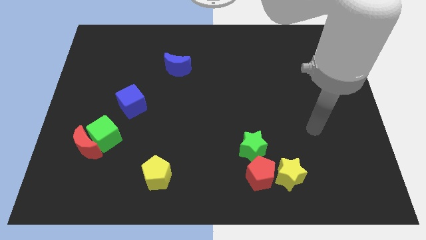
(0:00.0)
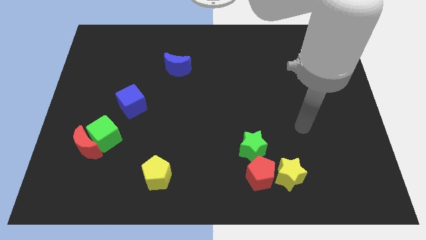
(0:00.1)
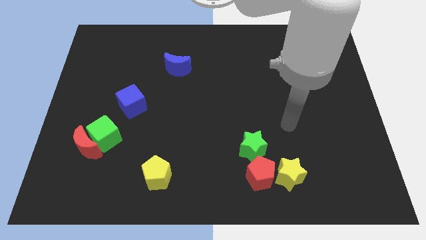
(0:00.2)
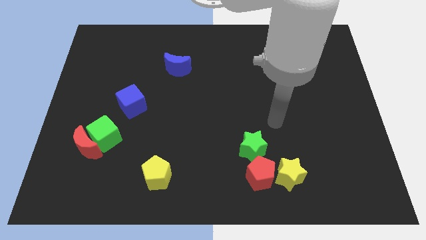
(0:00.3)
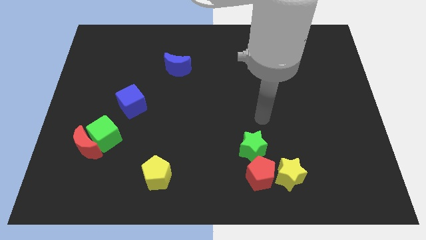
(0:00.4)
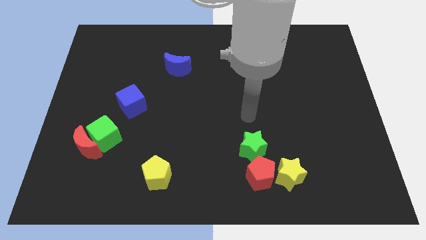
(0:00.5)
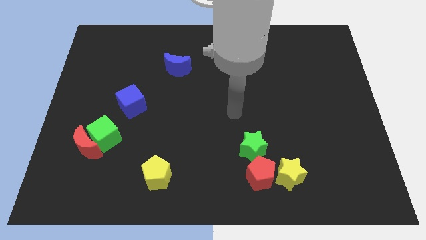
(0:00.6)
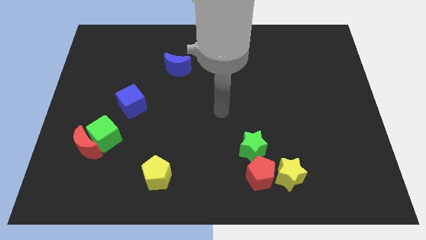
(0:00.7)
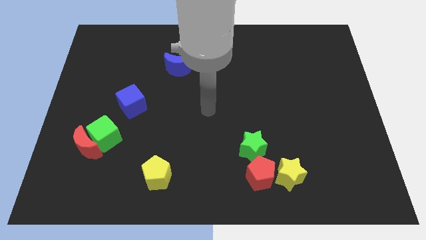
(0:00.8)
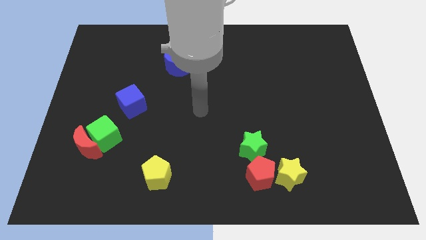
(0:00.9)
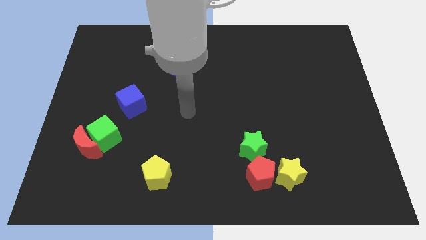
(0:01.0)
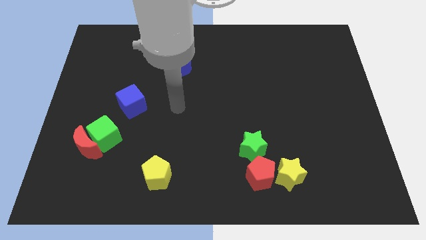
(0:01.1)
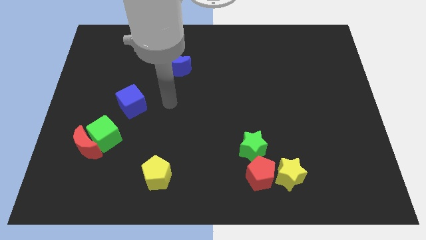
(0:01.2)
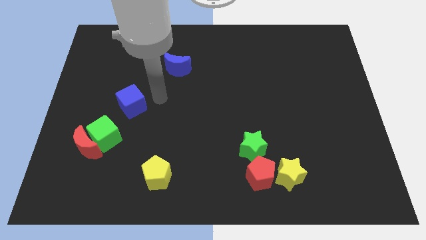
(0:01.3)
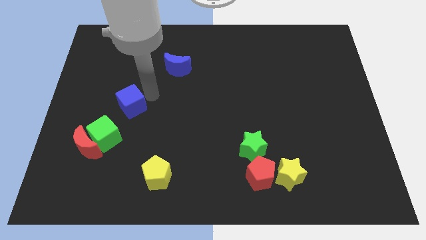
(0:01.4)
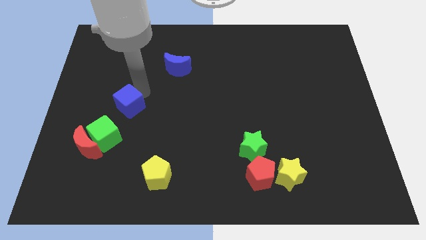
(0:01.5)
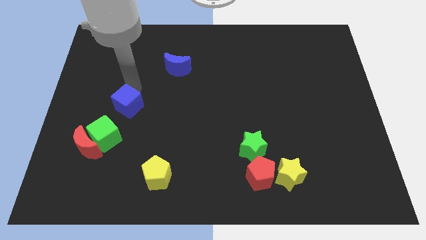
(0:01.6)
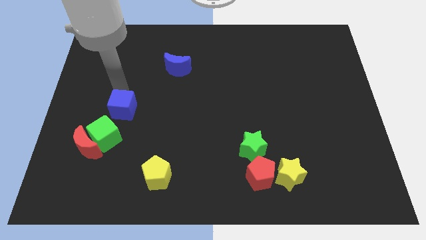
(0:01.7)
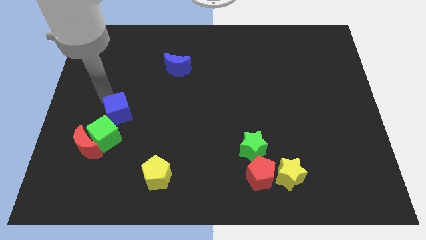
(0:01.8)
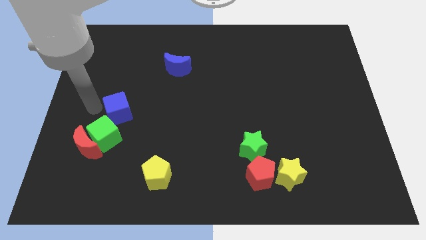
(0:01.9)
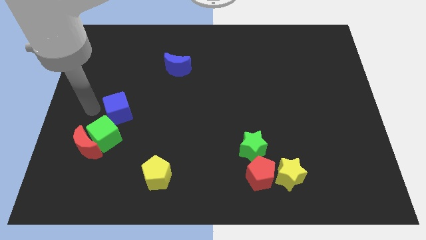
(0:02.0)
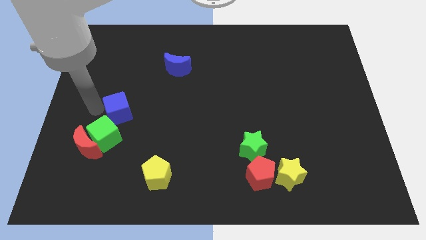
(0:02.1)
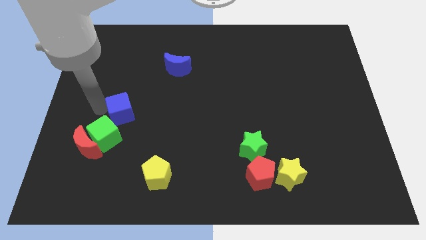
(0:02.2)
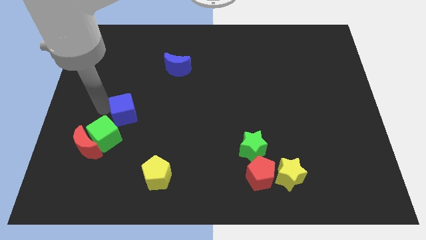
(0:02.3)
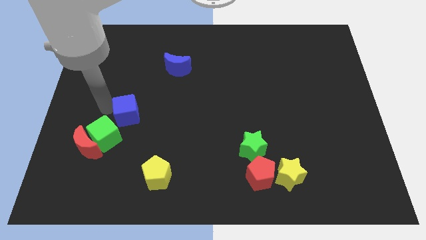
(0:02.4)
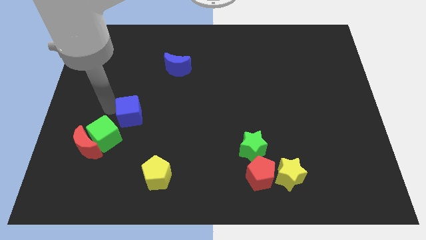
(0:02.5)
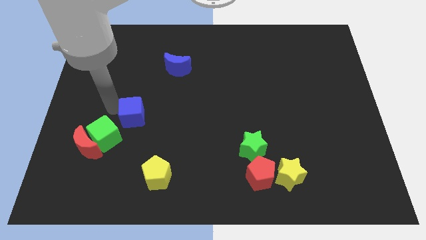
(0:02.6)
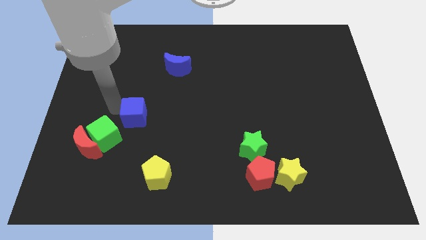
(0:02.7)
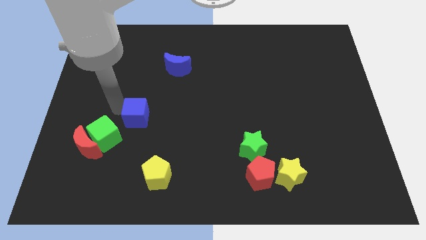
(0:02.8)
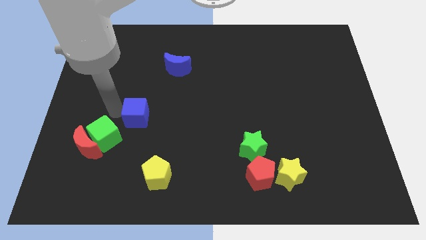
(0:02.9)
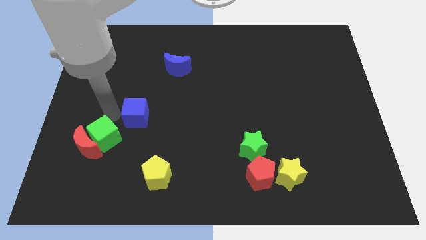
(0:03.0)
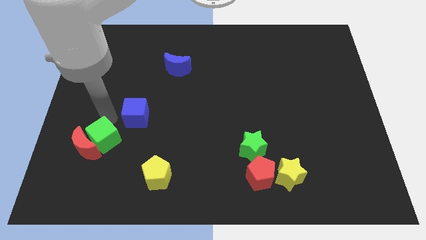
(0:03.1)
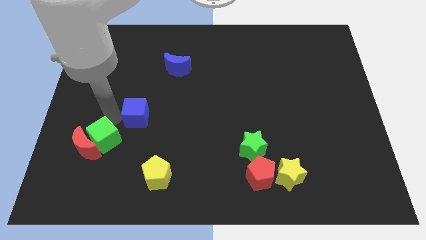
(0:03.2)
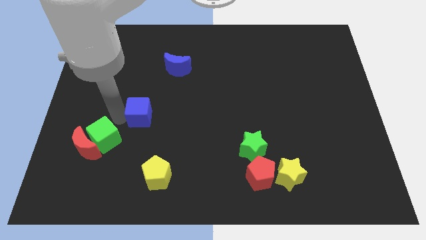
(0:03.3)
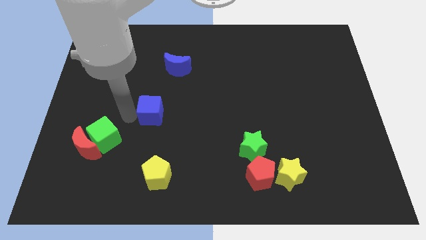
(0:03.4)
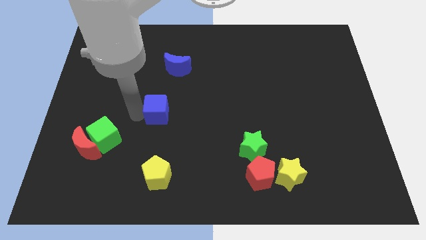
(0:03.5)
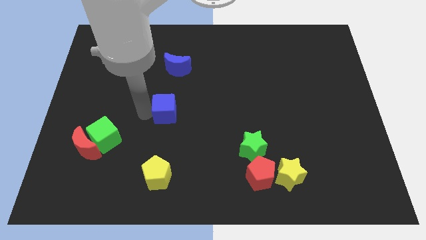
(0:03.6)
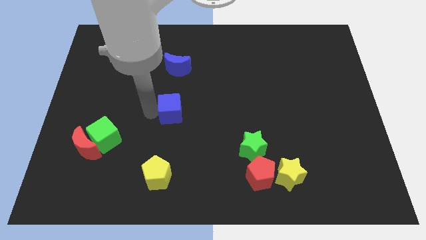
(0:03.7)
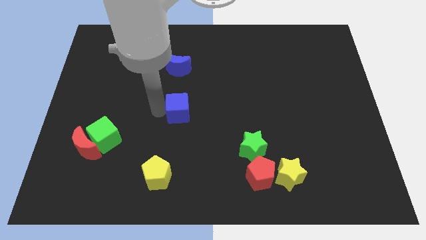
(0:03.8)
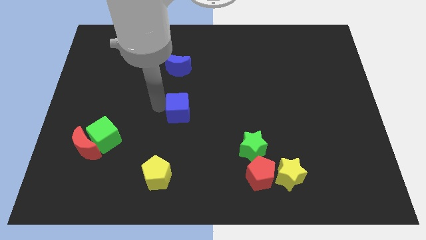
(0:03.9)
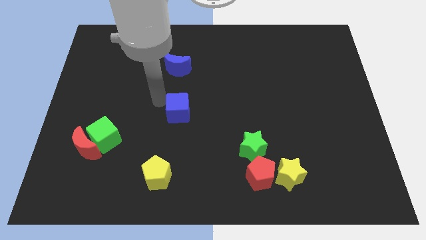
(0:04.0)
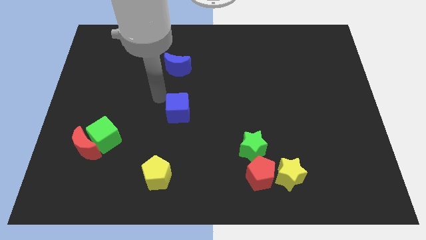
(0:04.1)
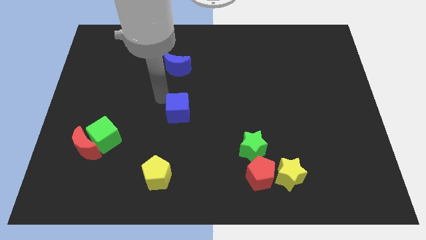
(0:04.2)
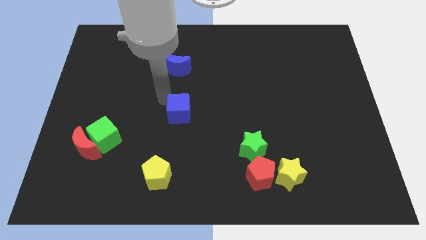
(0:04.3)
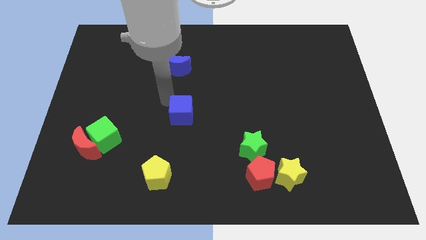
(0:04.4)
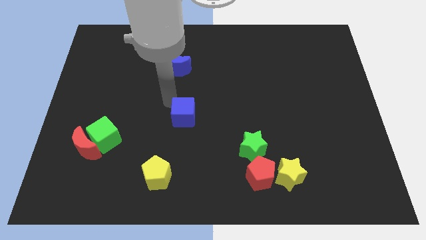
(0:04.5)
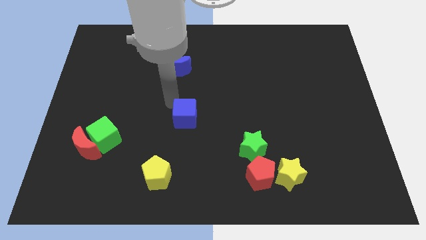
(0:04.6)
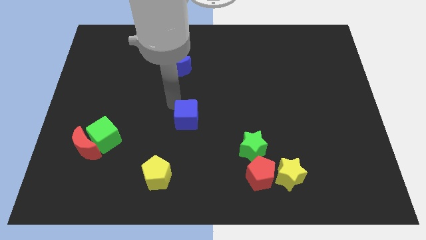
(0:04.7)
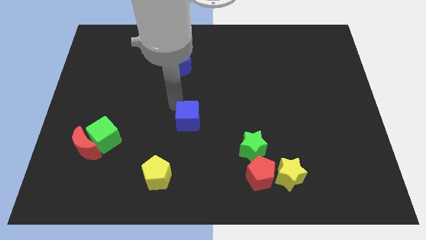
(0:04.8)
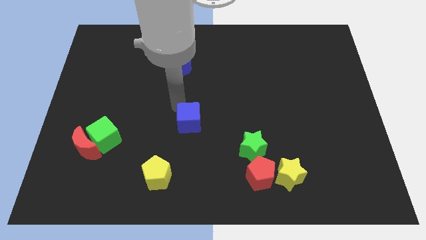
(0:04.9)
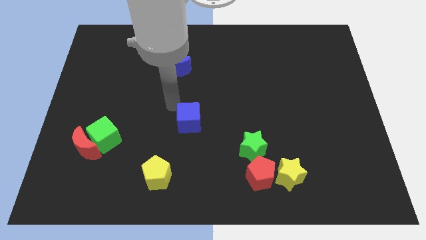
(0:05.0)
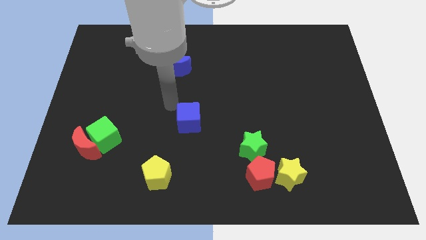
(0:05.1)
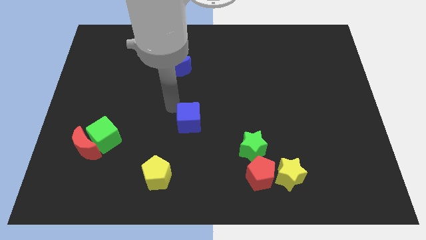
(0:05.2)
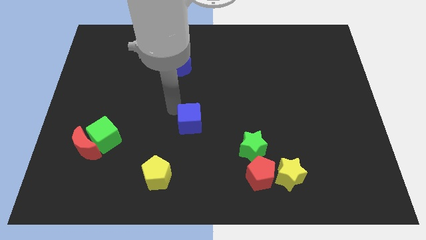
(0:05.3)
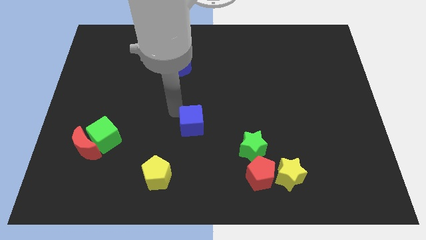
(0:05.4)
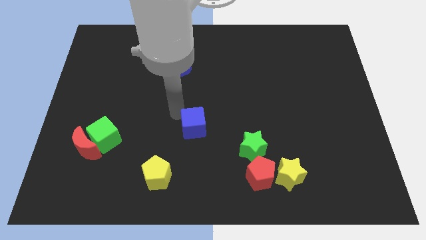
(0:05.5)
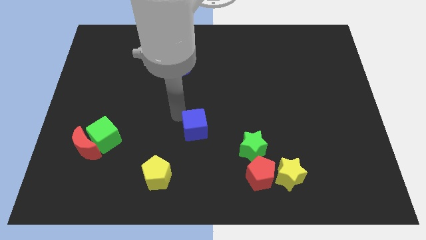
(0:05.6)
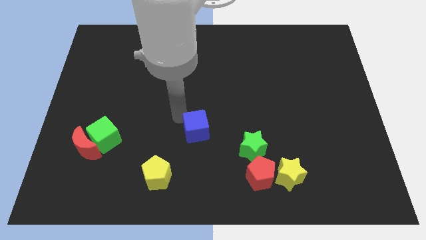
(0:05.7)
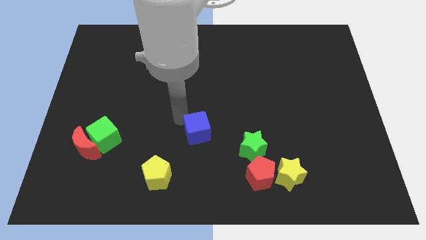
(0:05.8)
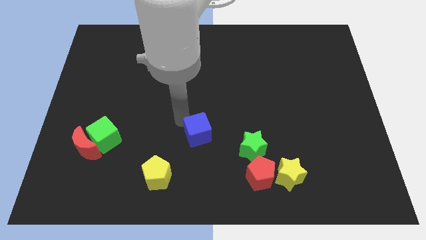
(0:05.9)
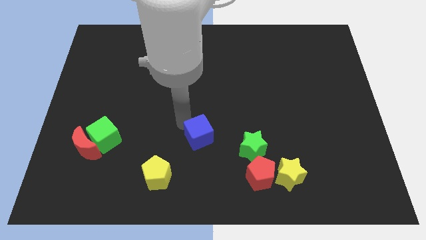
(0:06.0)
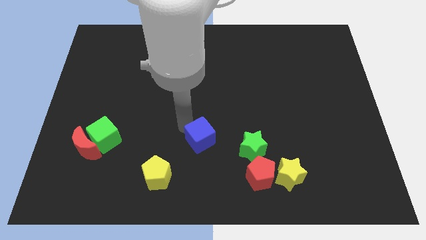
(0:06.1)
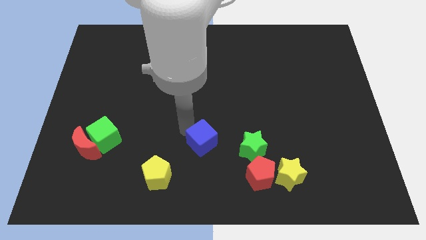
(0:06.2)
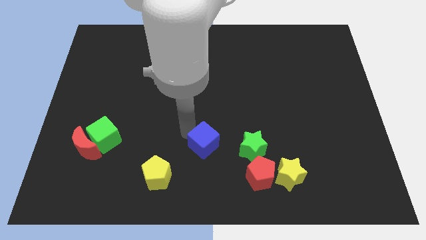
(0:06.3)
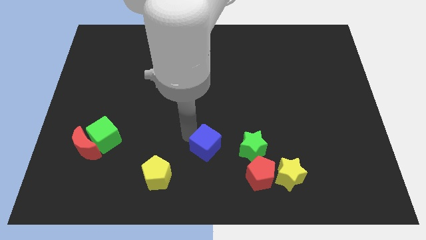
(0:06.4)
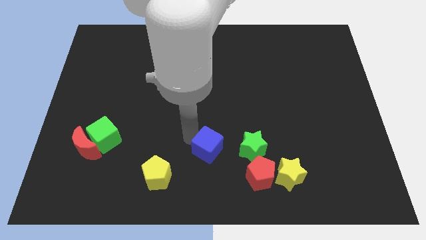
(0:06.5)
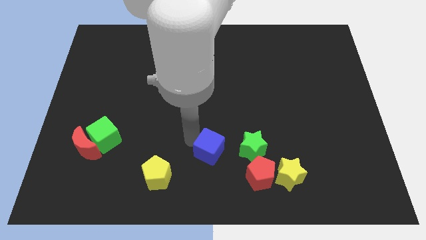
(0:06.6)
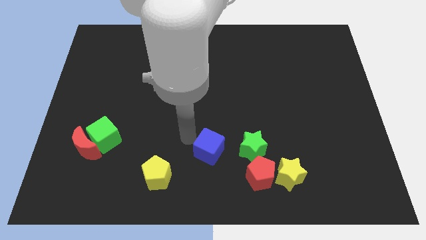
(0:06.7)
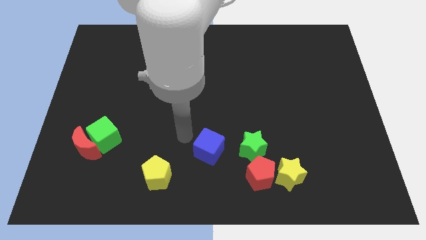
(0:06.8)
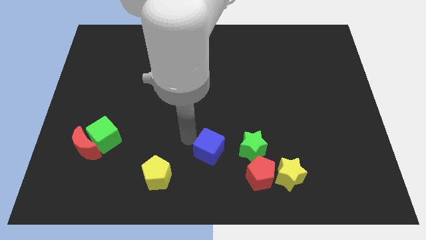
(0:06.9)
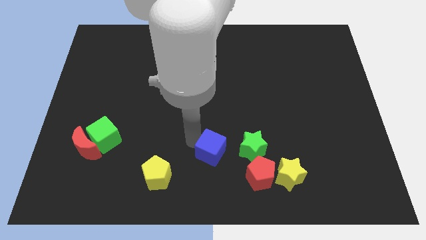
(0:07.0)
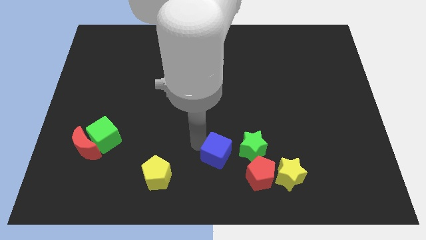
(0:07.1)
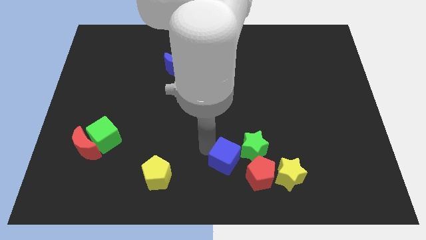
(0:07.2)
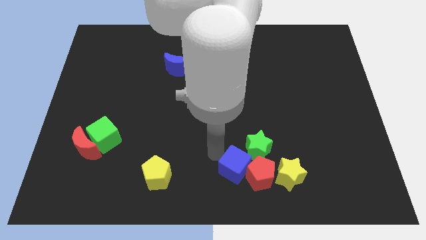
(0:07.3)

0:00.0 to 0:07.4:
move the blue cube close to the red pentagon

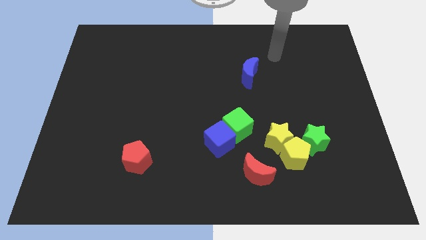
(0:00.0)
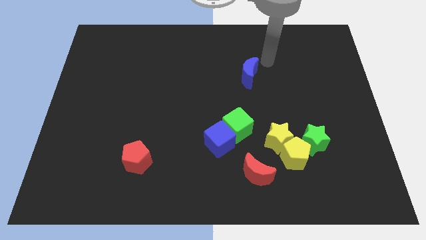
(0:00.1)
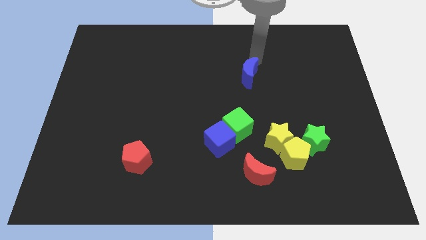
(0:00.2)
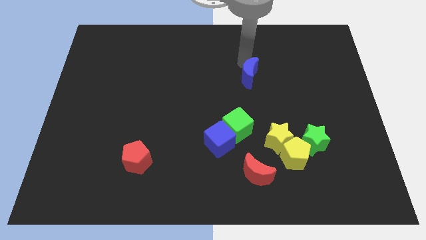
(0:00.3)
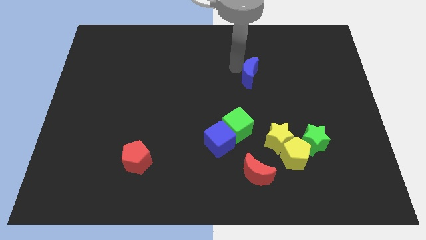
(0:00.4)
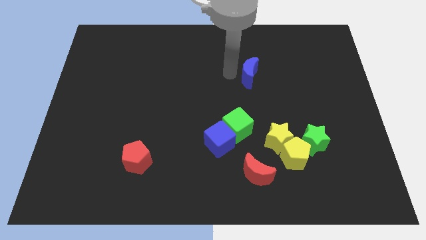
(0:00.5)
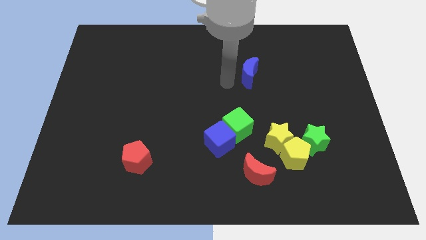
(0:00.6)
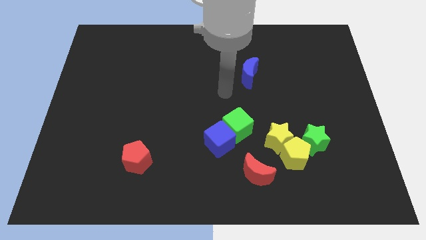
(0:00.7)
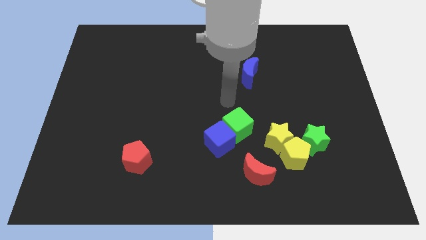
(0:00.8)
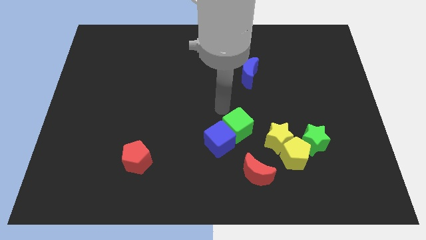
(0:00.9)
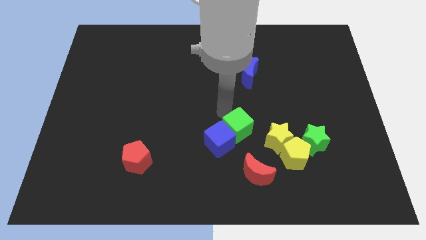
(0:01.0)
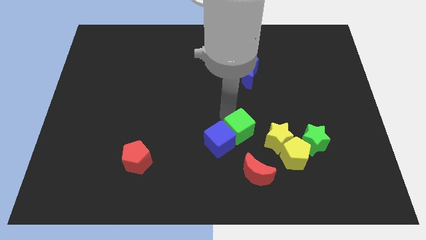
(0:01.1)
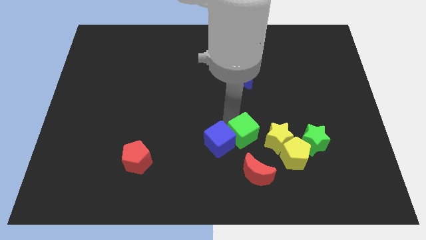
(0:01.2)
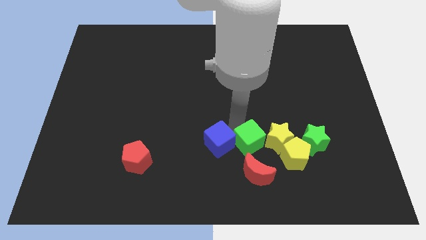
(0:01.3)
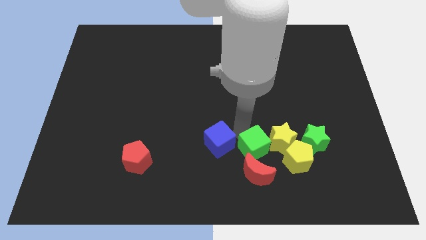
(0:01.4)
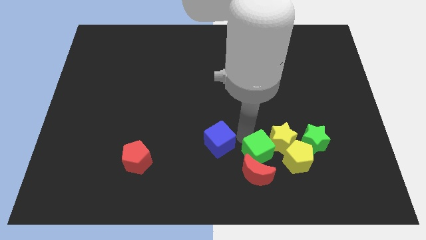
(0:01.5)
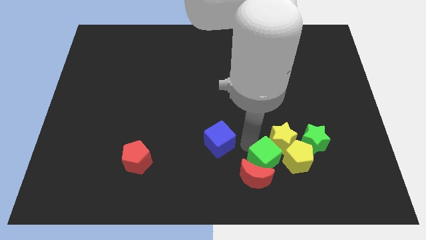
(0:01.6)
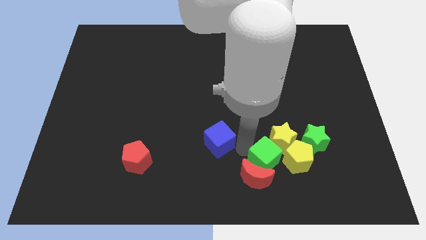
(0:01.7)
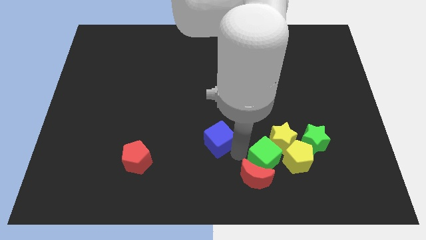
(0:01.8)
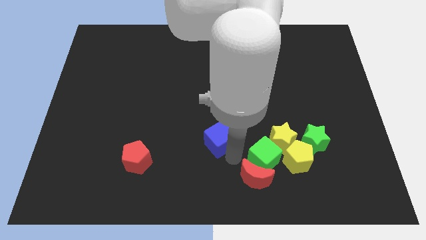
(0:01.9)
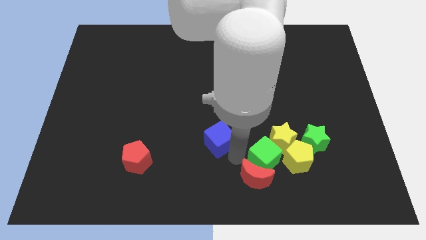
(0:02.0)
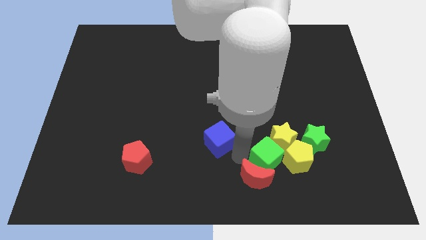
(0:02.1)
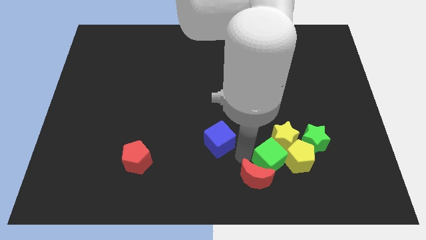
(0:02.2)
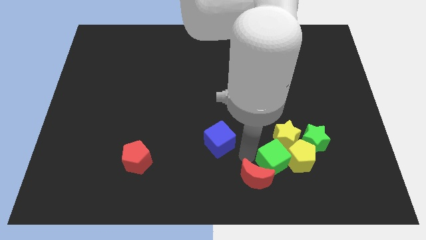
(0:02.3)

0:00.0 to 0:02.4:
slide the green cube next to the yellow pentagon
